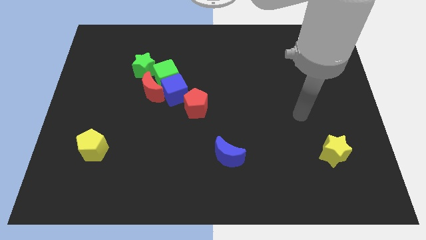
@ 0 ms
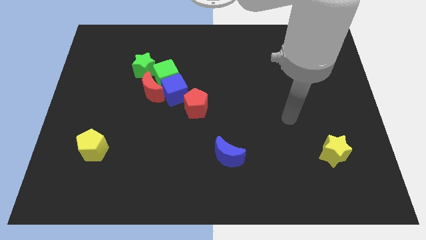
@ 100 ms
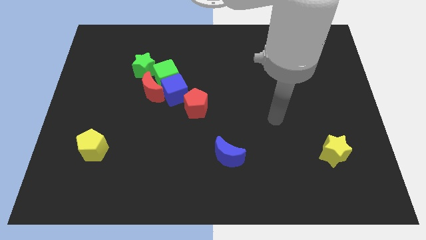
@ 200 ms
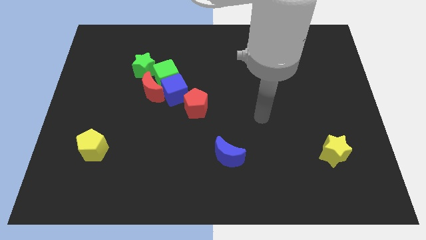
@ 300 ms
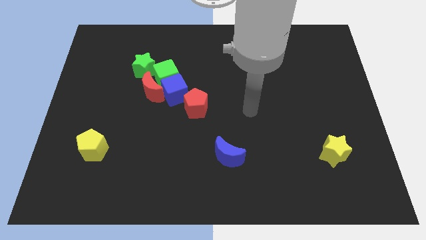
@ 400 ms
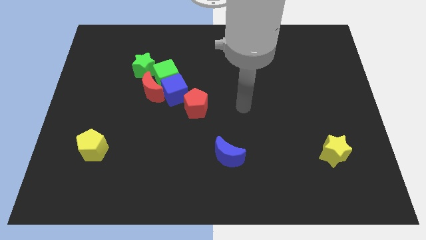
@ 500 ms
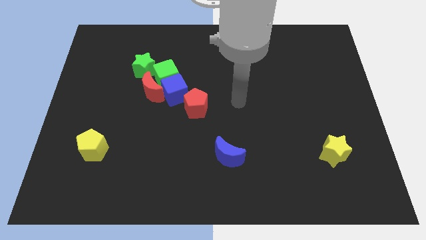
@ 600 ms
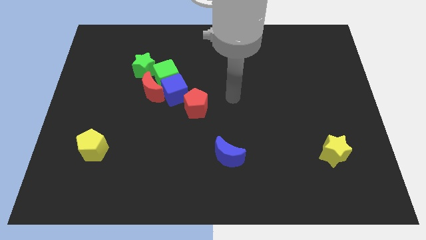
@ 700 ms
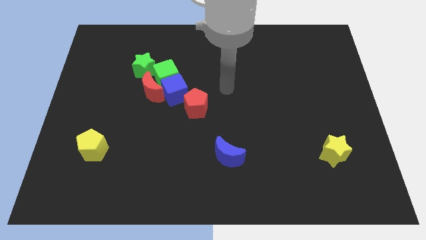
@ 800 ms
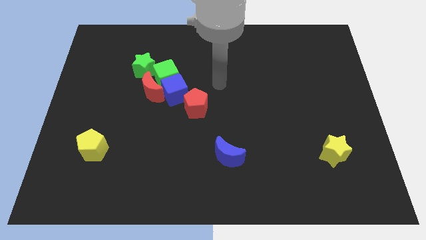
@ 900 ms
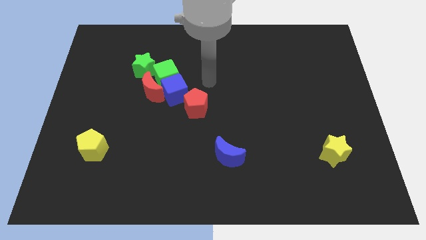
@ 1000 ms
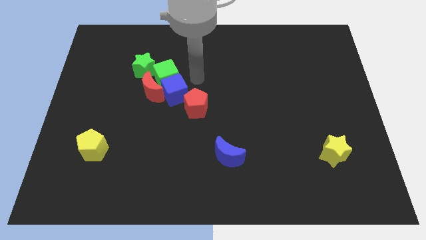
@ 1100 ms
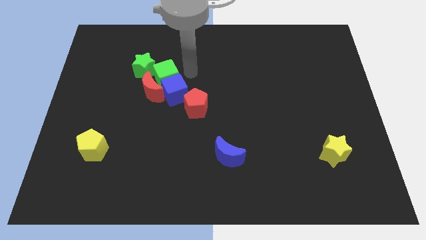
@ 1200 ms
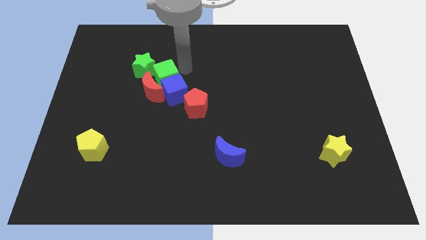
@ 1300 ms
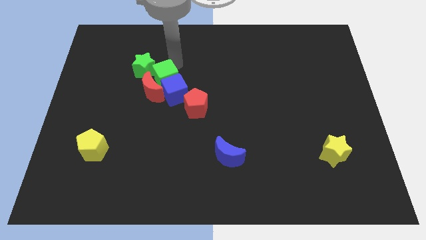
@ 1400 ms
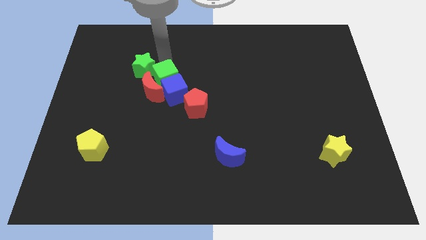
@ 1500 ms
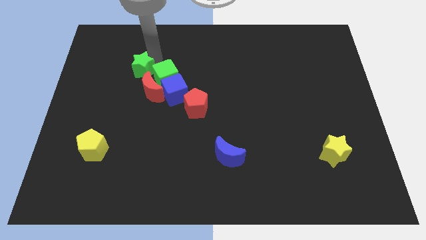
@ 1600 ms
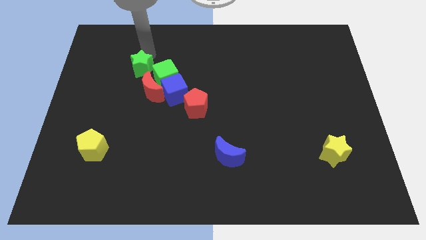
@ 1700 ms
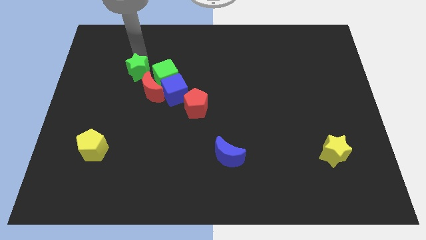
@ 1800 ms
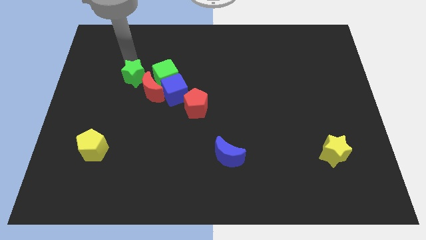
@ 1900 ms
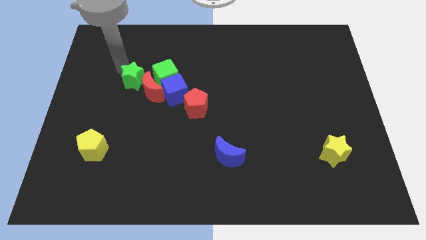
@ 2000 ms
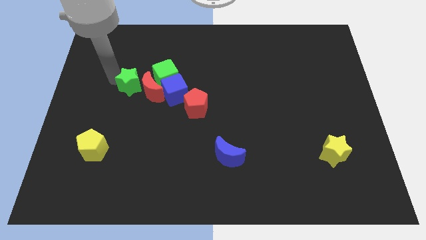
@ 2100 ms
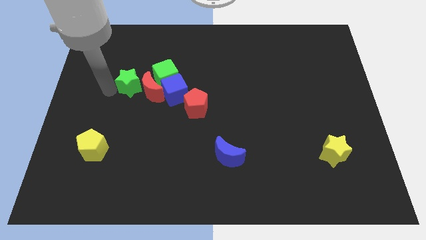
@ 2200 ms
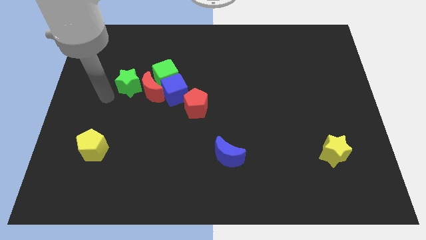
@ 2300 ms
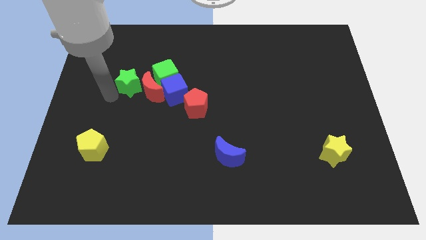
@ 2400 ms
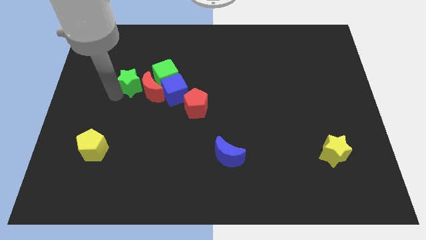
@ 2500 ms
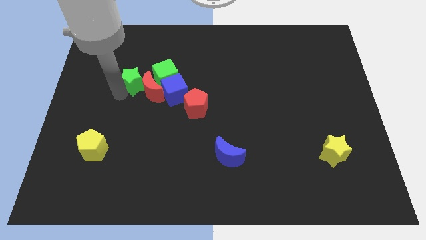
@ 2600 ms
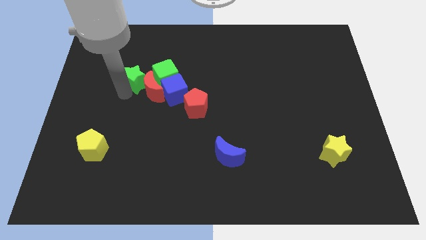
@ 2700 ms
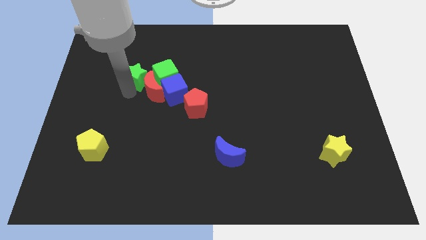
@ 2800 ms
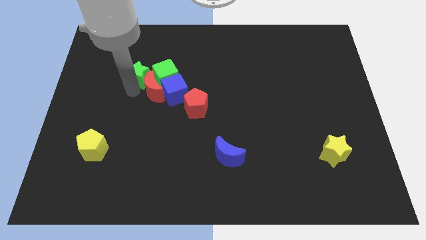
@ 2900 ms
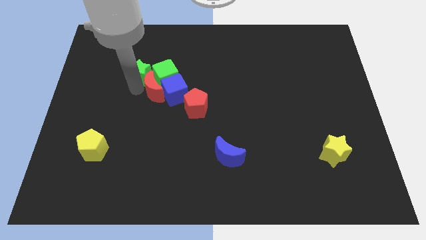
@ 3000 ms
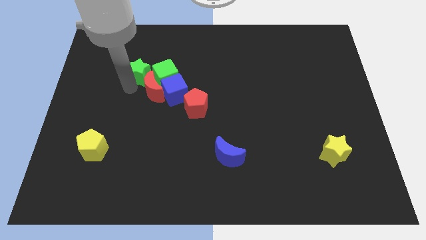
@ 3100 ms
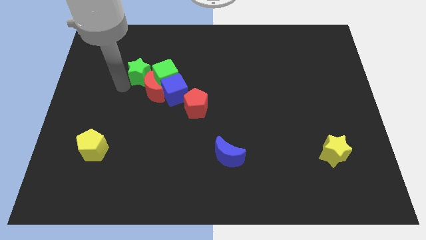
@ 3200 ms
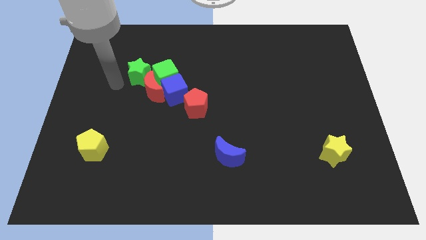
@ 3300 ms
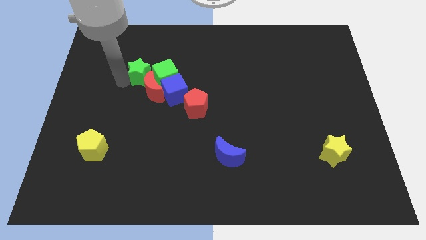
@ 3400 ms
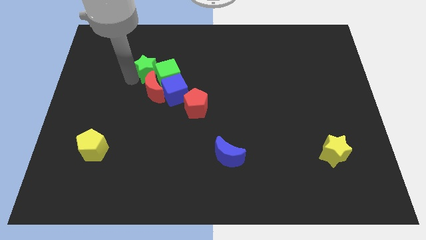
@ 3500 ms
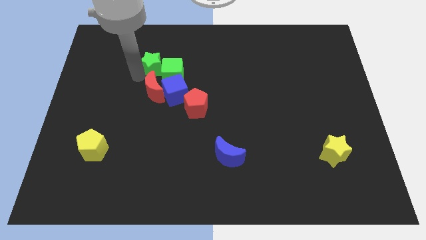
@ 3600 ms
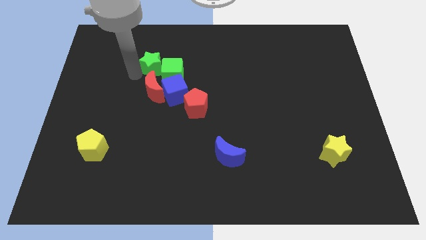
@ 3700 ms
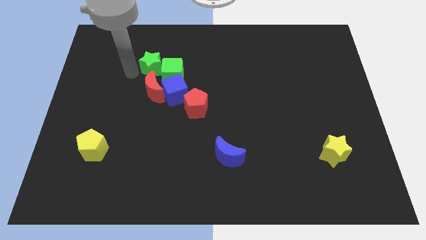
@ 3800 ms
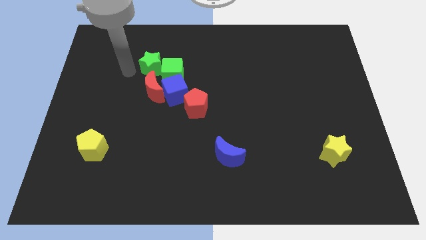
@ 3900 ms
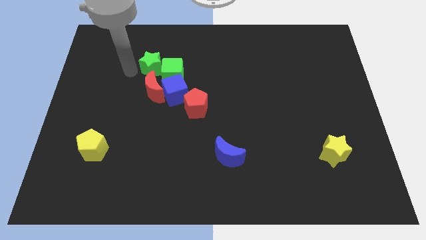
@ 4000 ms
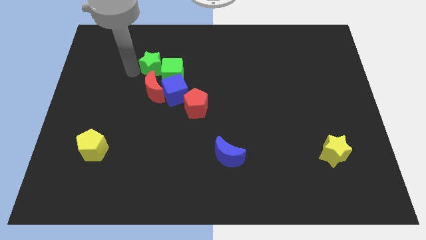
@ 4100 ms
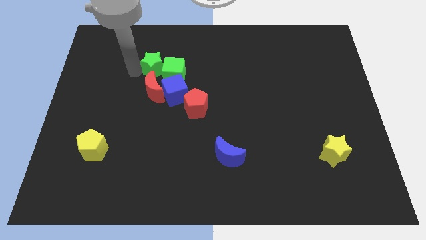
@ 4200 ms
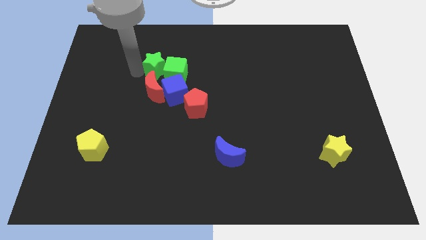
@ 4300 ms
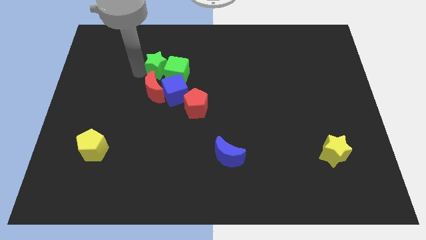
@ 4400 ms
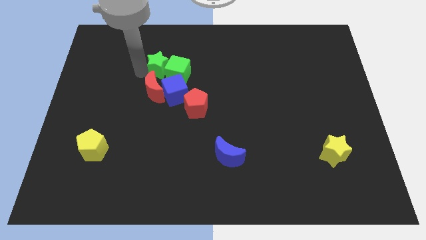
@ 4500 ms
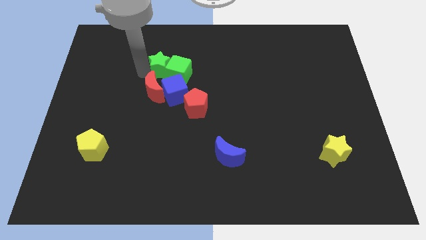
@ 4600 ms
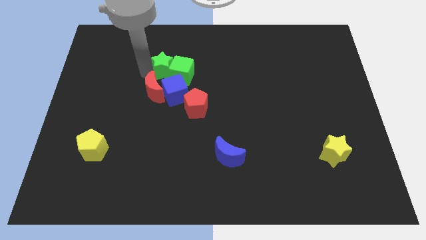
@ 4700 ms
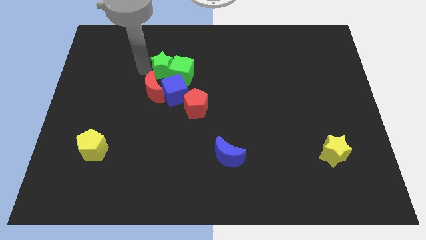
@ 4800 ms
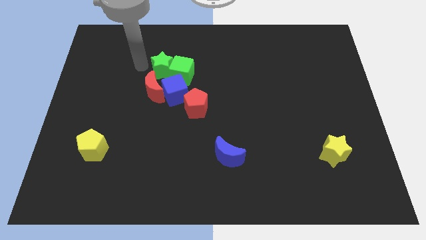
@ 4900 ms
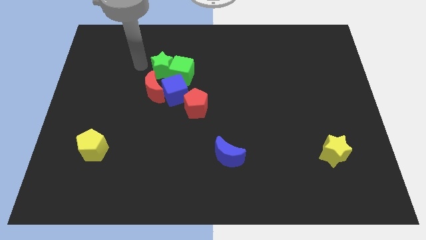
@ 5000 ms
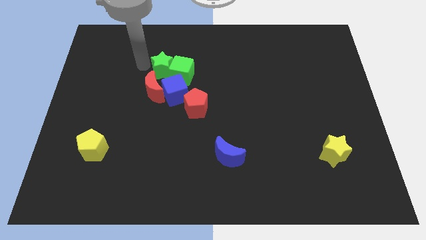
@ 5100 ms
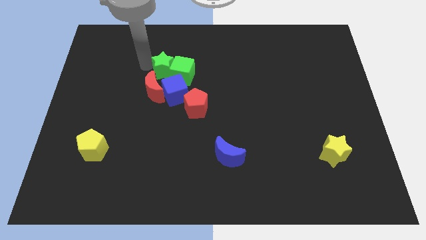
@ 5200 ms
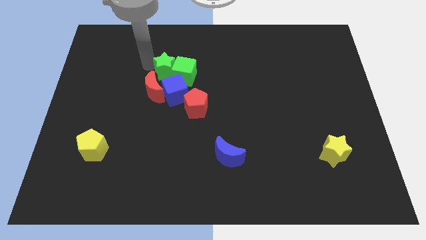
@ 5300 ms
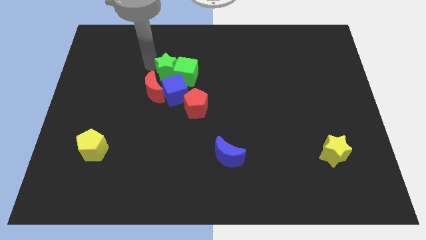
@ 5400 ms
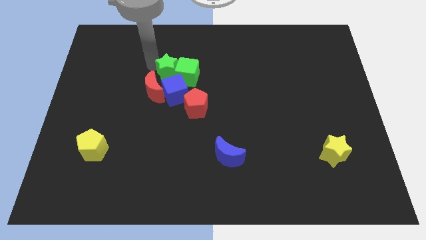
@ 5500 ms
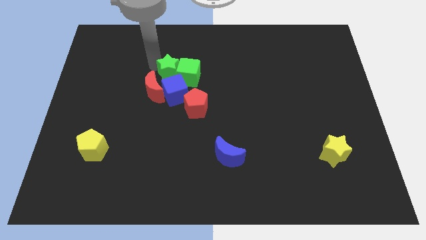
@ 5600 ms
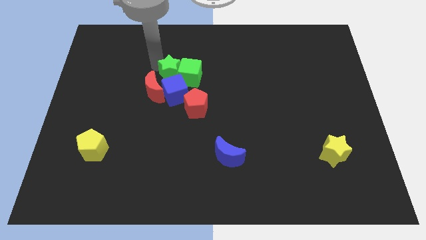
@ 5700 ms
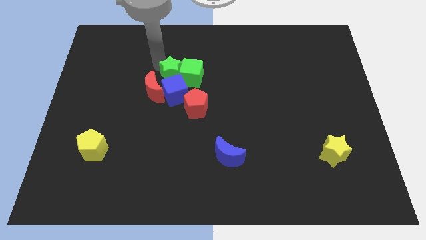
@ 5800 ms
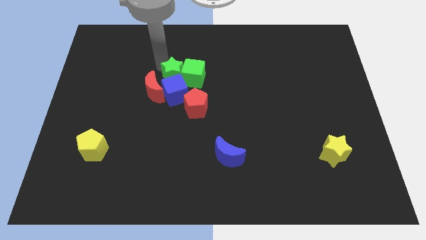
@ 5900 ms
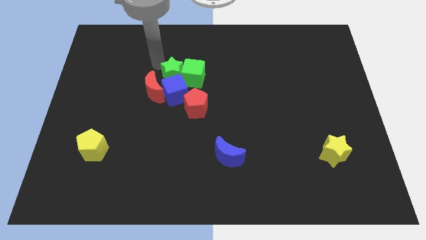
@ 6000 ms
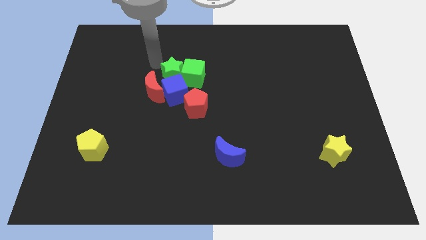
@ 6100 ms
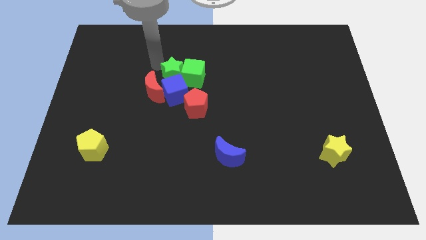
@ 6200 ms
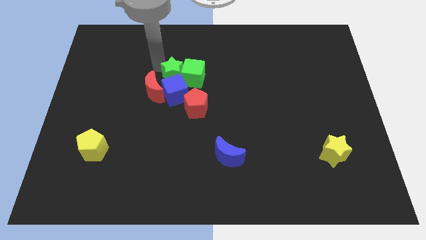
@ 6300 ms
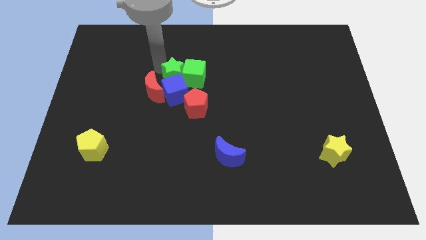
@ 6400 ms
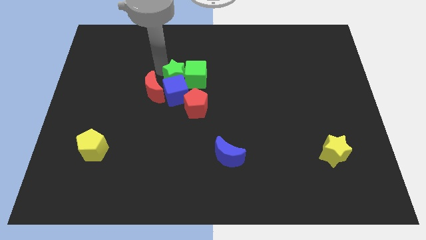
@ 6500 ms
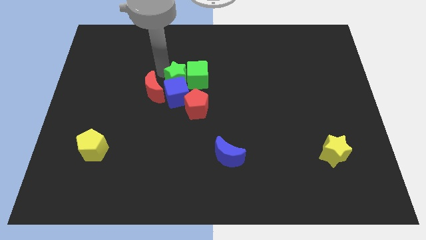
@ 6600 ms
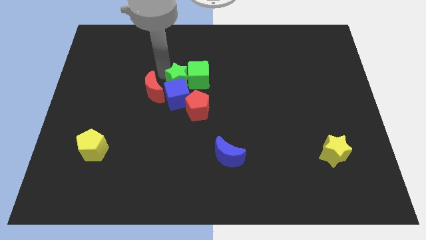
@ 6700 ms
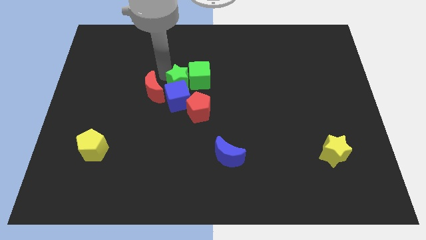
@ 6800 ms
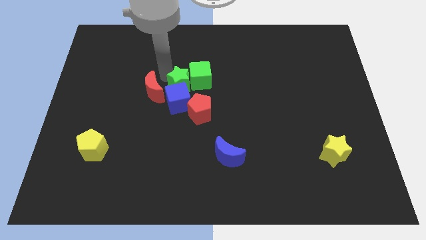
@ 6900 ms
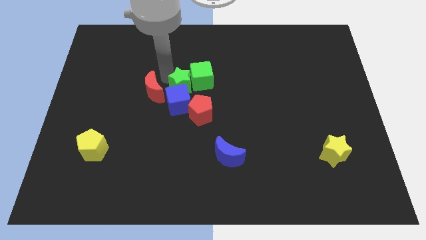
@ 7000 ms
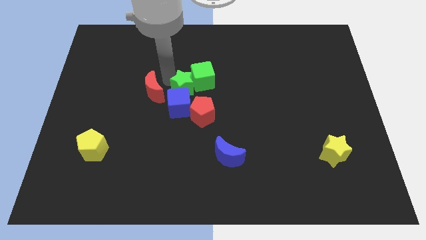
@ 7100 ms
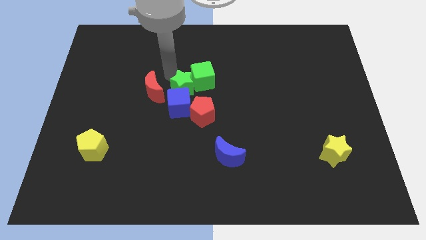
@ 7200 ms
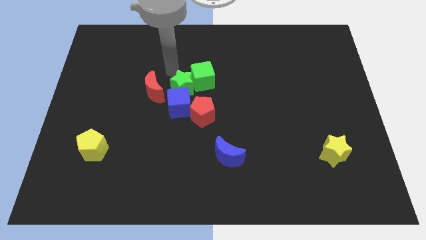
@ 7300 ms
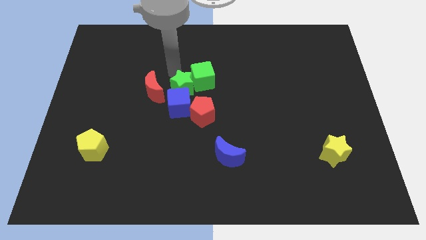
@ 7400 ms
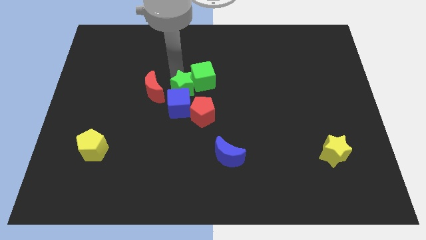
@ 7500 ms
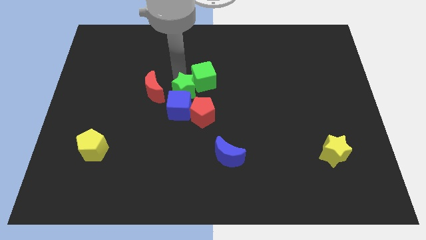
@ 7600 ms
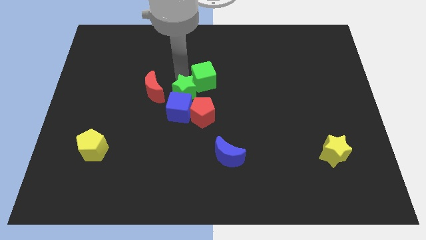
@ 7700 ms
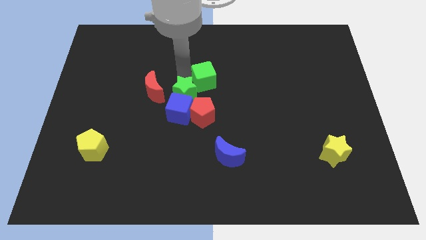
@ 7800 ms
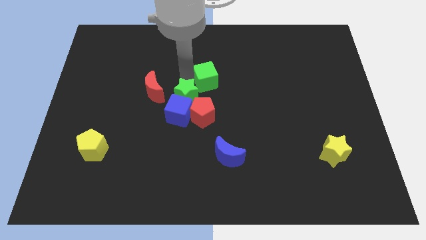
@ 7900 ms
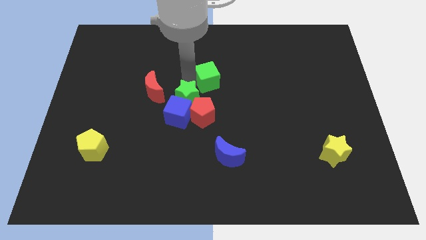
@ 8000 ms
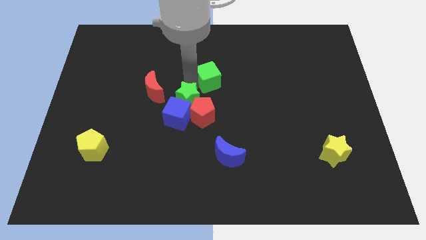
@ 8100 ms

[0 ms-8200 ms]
push the green star close to the red pentagon
